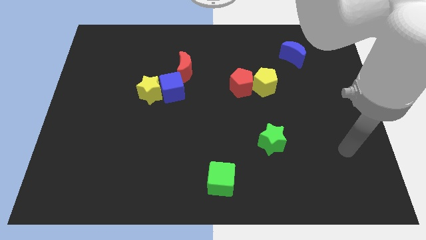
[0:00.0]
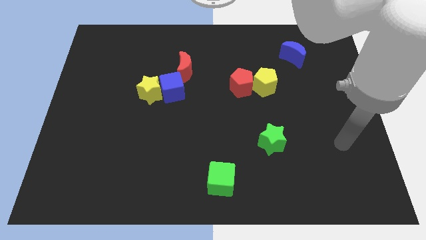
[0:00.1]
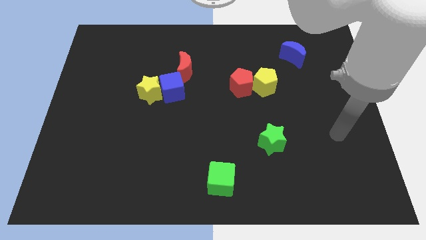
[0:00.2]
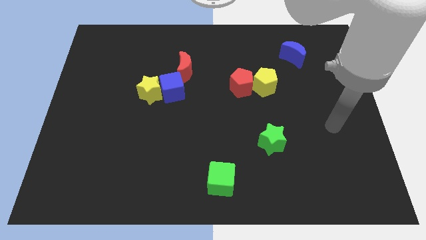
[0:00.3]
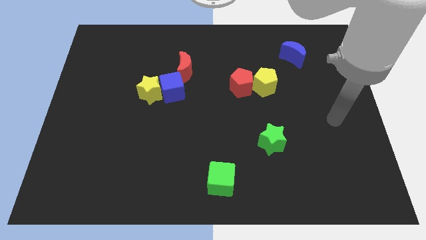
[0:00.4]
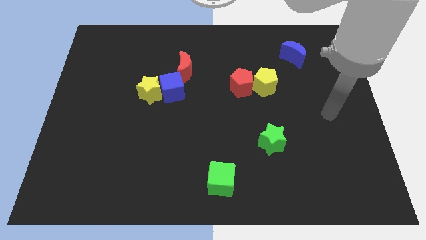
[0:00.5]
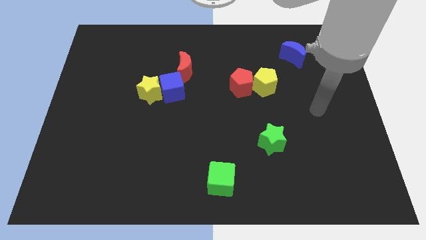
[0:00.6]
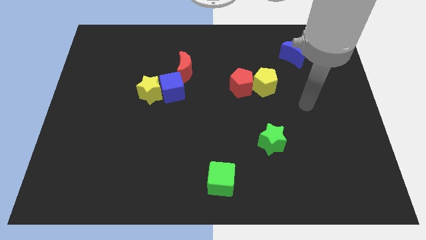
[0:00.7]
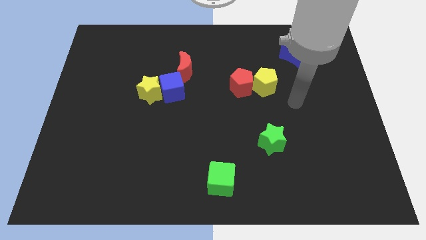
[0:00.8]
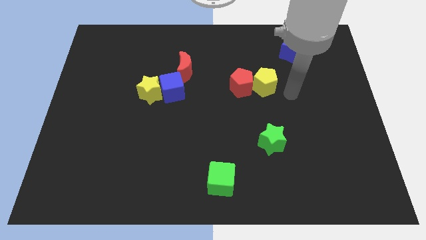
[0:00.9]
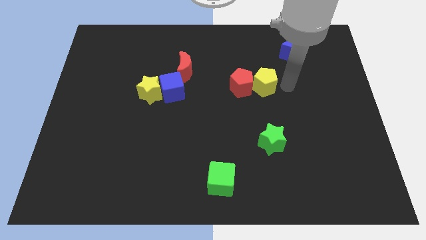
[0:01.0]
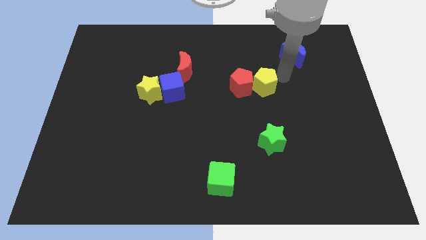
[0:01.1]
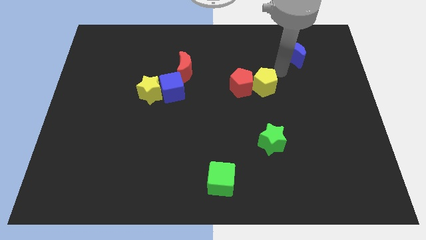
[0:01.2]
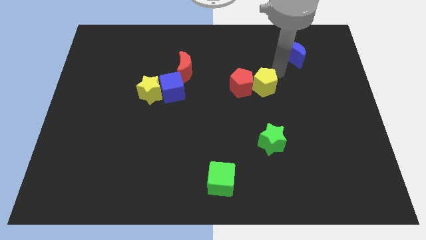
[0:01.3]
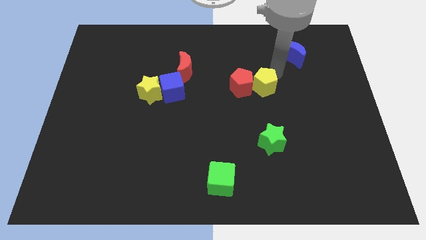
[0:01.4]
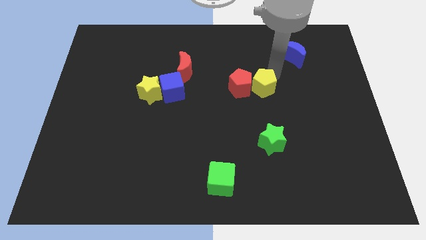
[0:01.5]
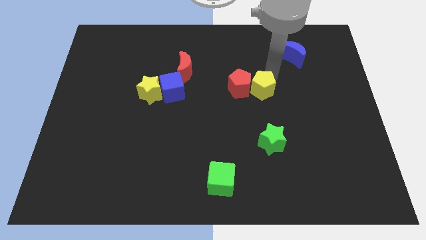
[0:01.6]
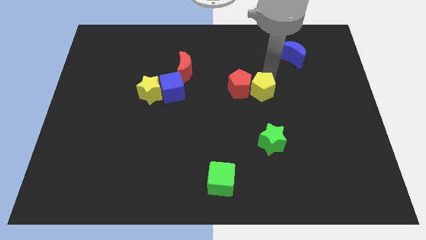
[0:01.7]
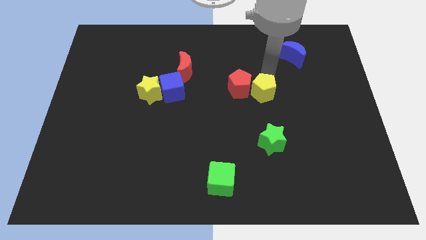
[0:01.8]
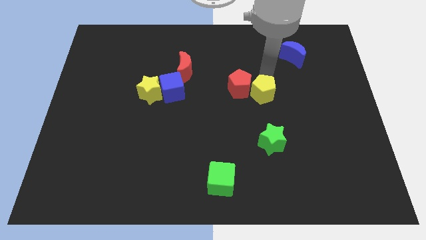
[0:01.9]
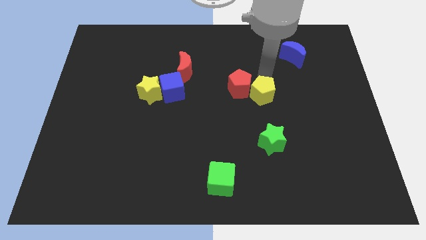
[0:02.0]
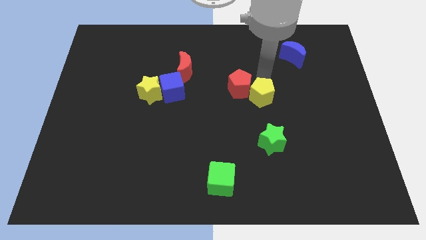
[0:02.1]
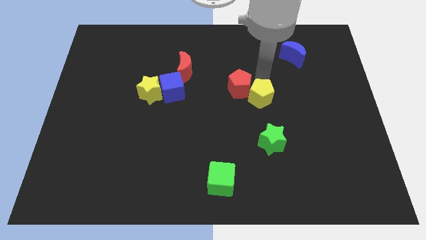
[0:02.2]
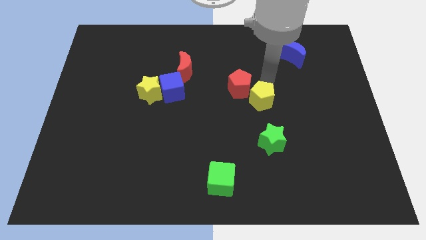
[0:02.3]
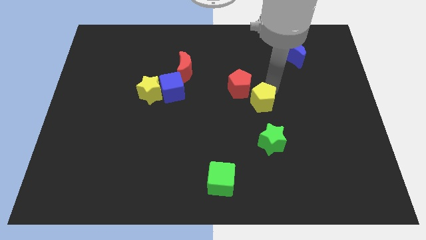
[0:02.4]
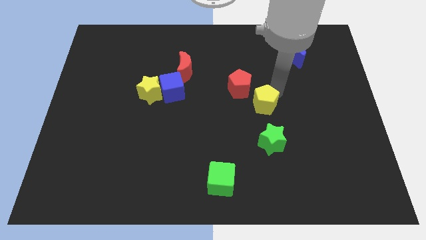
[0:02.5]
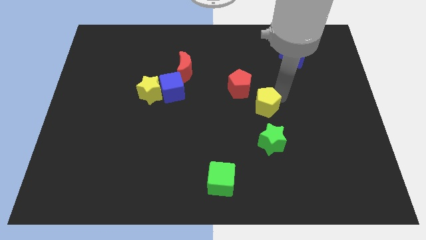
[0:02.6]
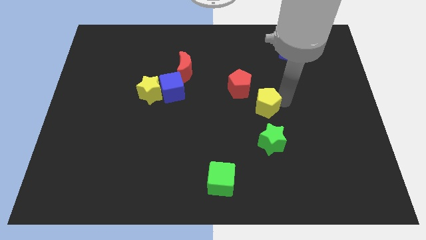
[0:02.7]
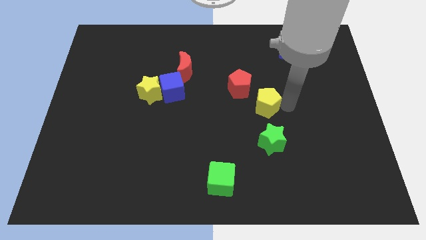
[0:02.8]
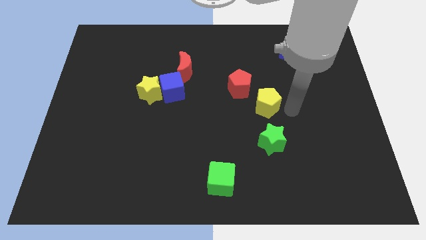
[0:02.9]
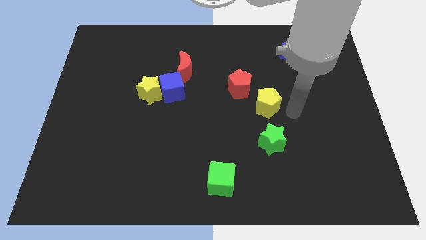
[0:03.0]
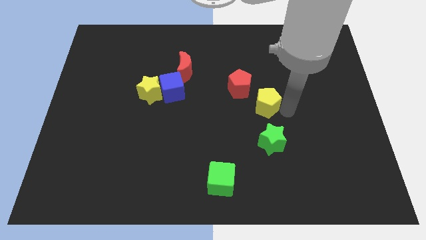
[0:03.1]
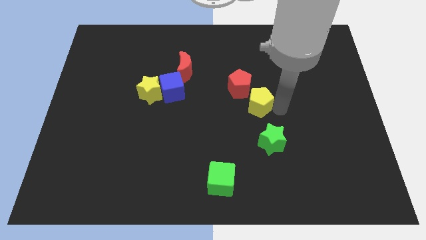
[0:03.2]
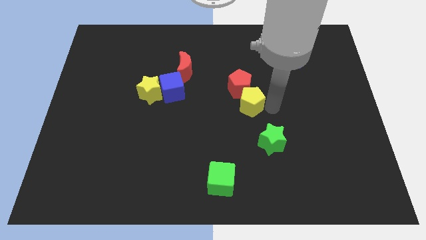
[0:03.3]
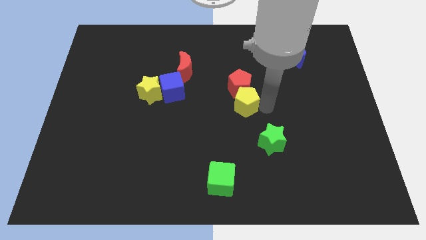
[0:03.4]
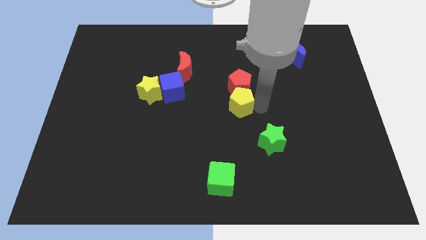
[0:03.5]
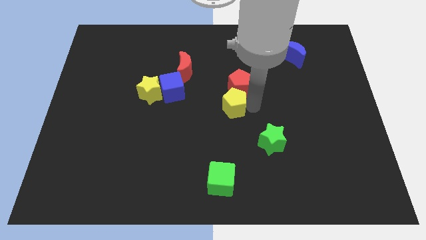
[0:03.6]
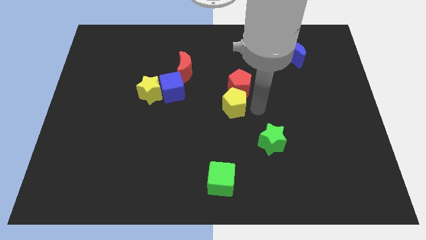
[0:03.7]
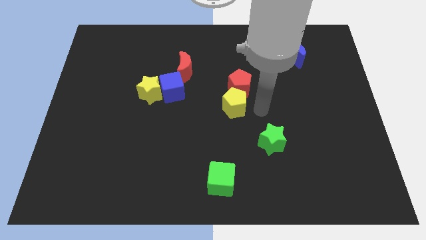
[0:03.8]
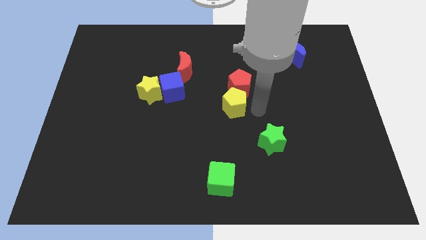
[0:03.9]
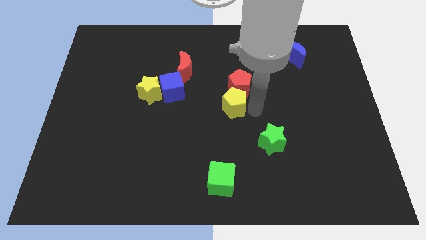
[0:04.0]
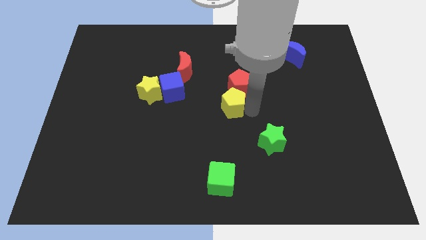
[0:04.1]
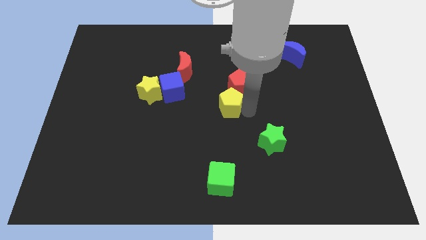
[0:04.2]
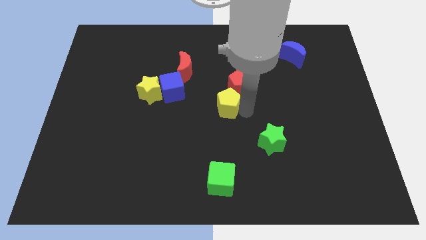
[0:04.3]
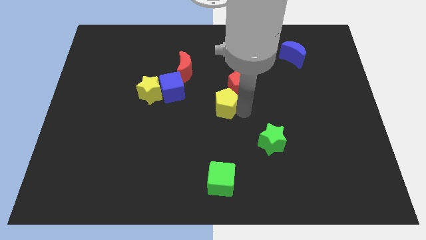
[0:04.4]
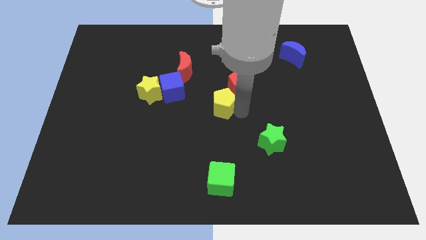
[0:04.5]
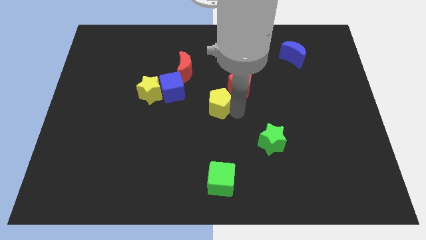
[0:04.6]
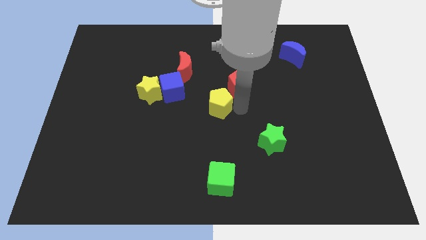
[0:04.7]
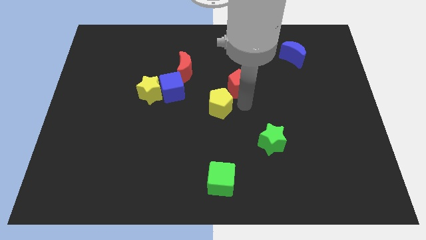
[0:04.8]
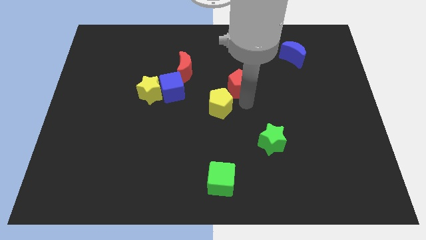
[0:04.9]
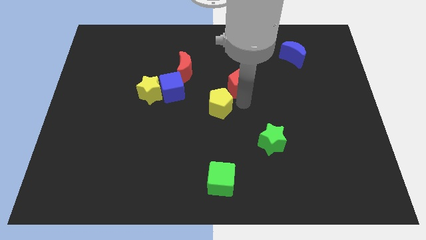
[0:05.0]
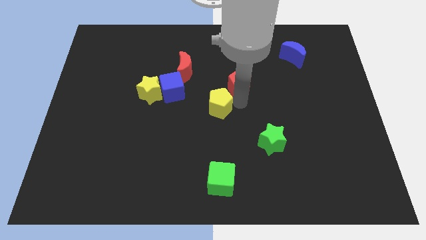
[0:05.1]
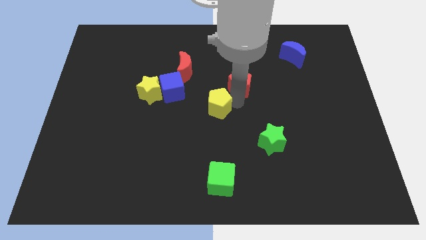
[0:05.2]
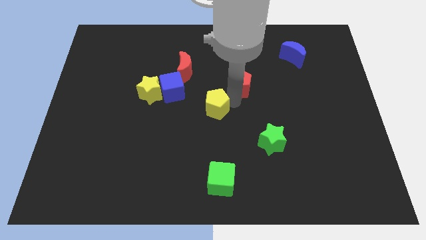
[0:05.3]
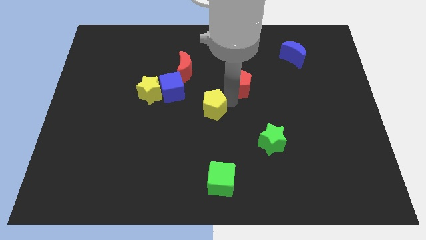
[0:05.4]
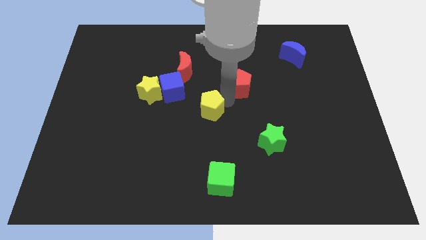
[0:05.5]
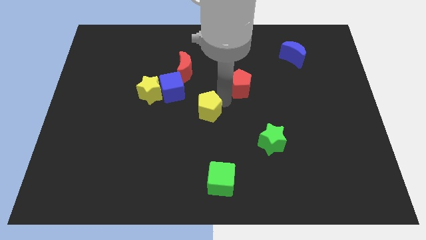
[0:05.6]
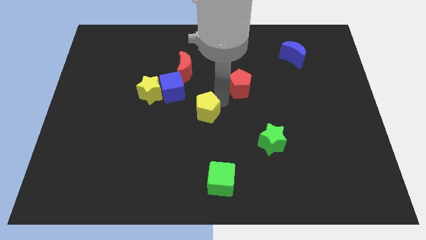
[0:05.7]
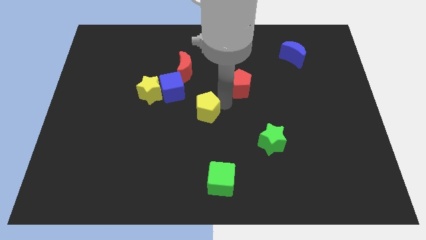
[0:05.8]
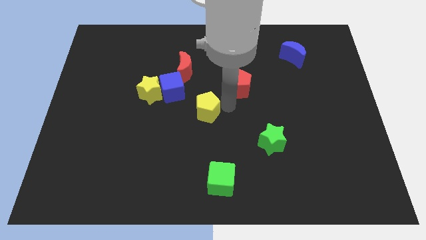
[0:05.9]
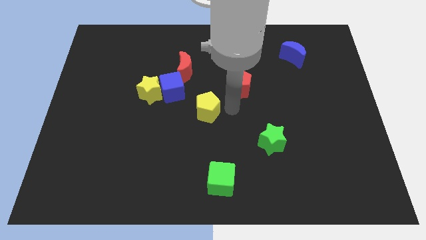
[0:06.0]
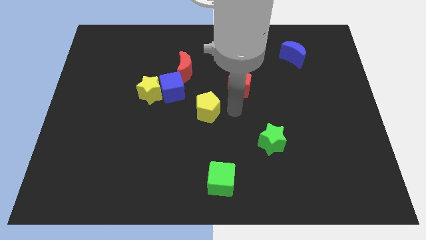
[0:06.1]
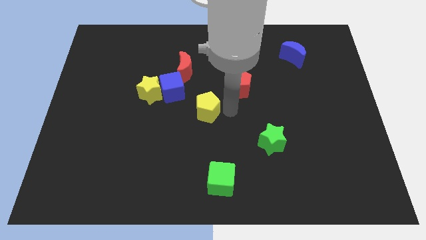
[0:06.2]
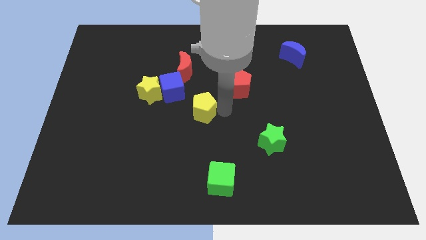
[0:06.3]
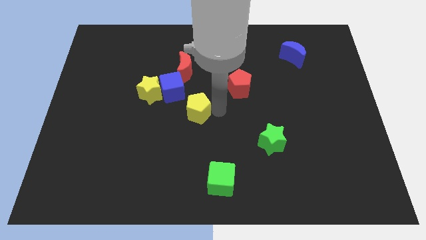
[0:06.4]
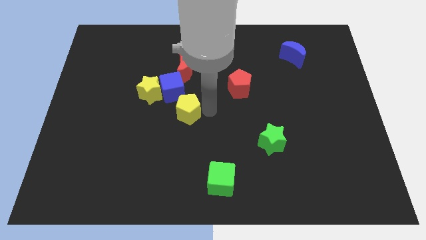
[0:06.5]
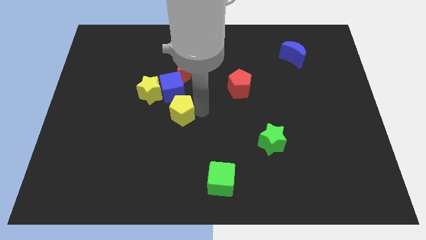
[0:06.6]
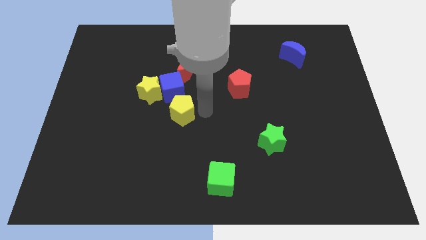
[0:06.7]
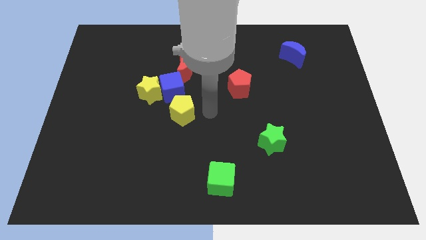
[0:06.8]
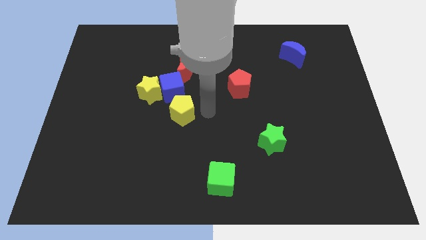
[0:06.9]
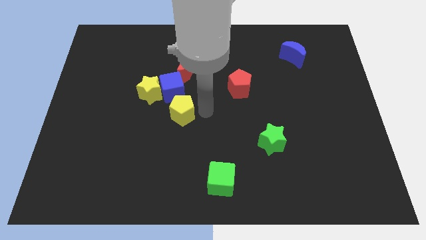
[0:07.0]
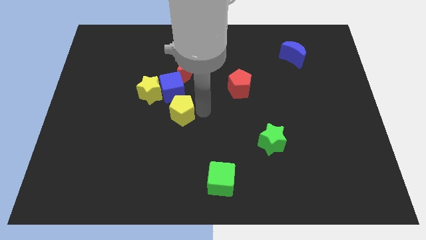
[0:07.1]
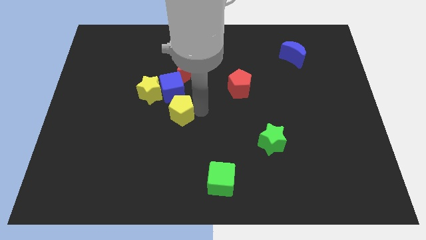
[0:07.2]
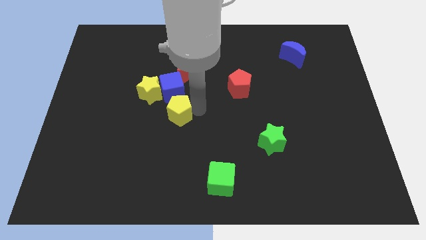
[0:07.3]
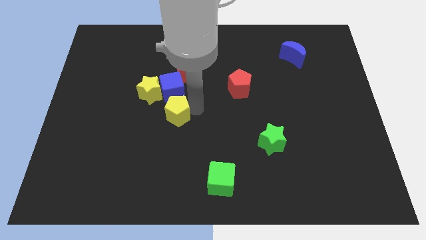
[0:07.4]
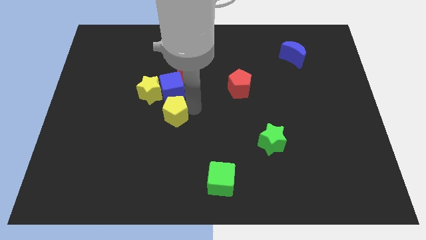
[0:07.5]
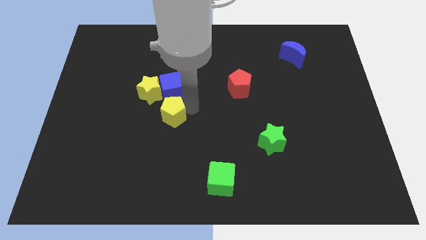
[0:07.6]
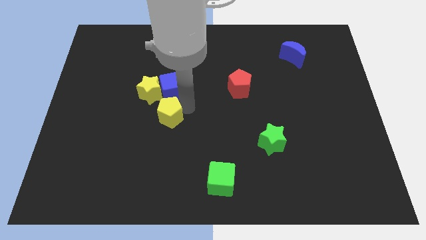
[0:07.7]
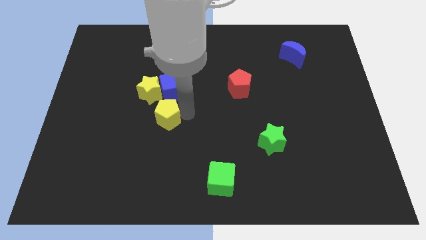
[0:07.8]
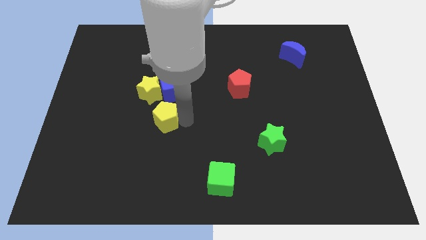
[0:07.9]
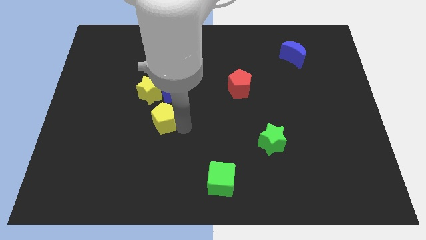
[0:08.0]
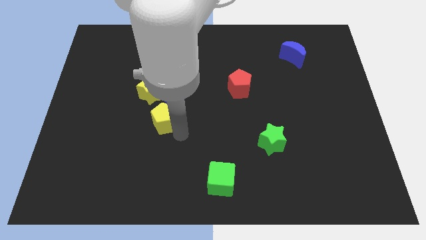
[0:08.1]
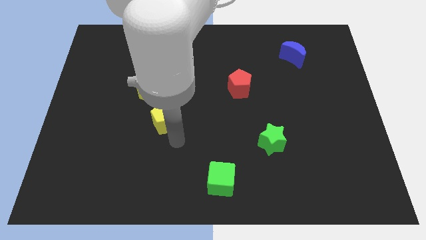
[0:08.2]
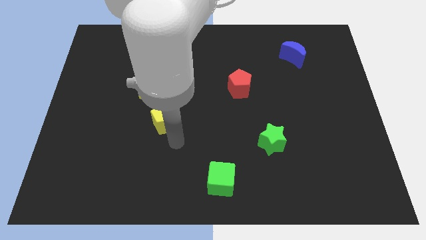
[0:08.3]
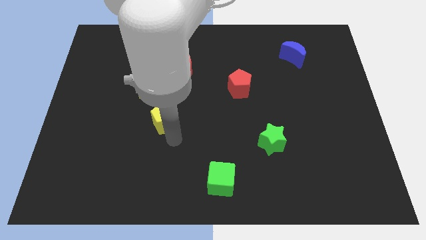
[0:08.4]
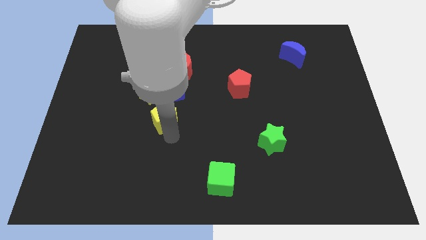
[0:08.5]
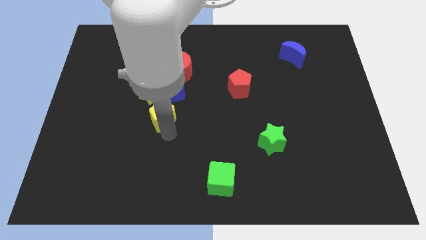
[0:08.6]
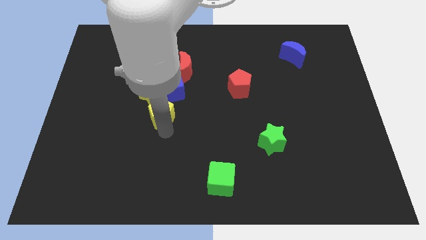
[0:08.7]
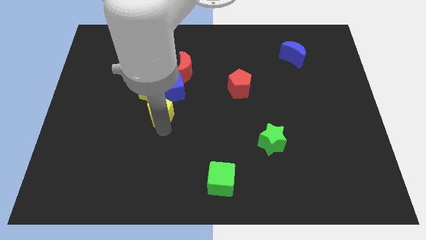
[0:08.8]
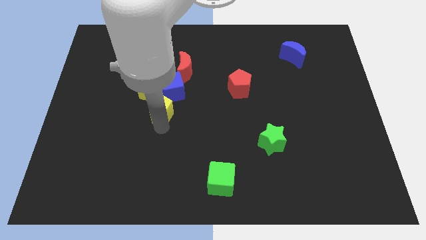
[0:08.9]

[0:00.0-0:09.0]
push the yellow pentagon next to the yellow star
